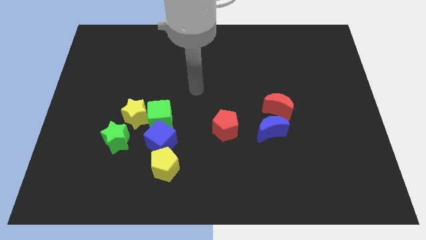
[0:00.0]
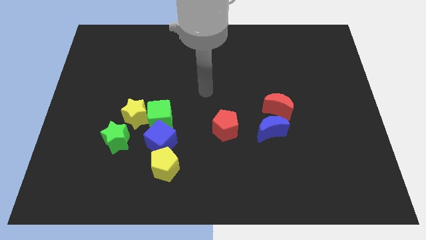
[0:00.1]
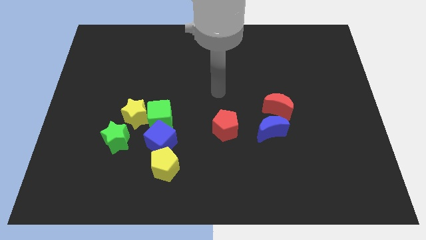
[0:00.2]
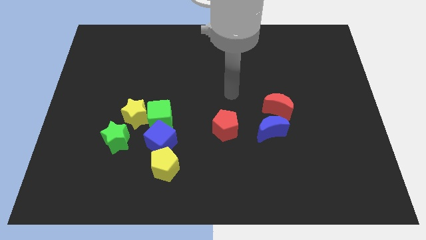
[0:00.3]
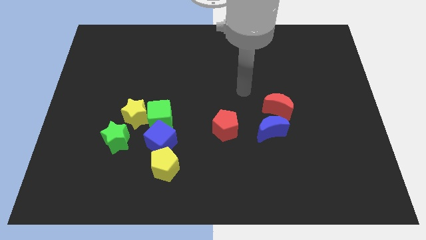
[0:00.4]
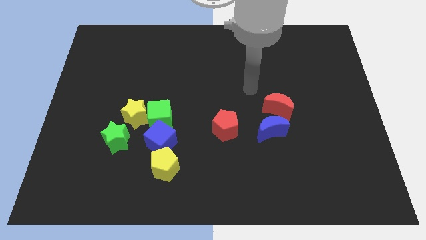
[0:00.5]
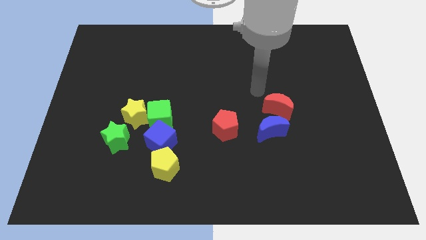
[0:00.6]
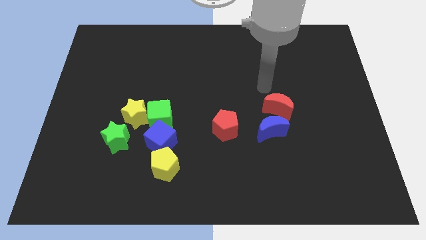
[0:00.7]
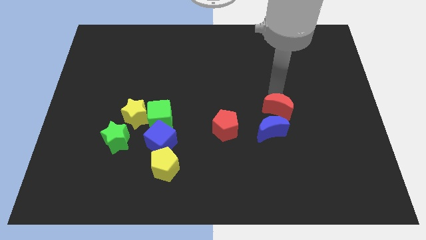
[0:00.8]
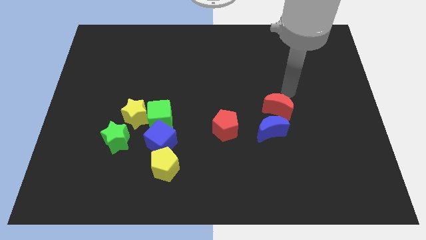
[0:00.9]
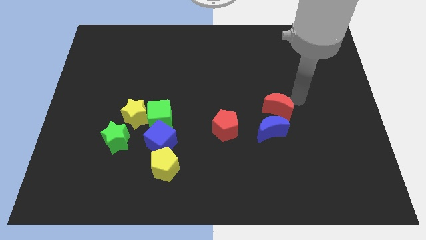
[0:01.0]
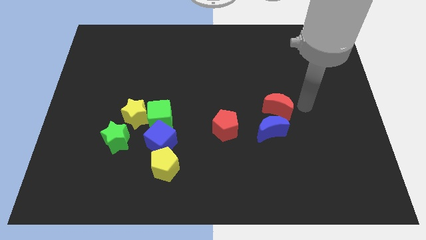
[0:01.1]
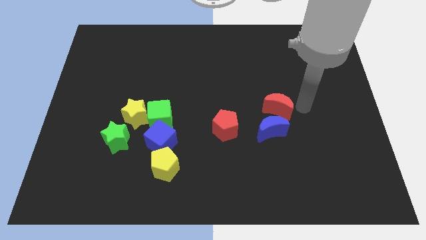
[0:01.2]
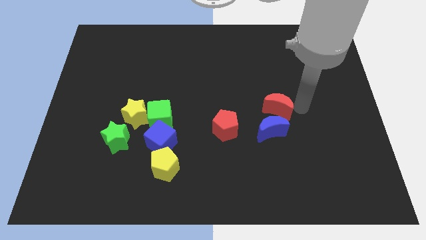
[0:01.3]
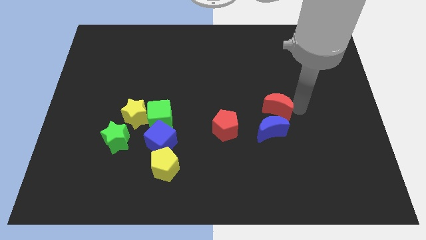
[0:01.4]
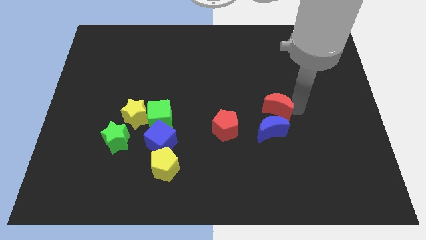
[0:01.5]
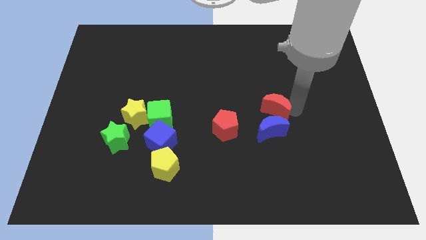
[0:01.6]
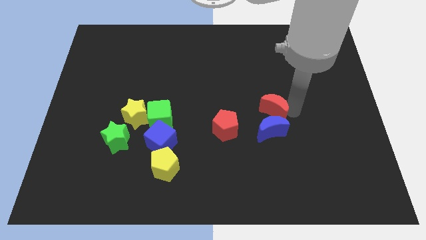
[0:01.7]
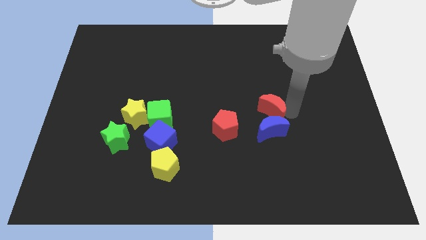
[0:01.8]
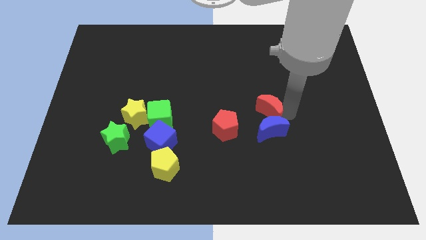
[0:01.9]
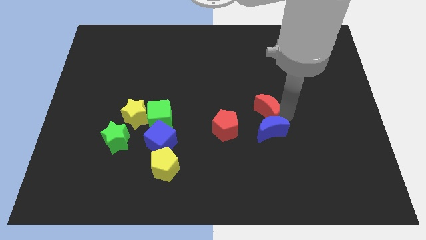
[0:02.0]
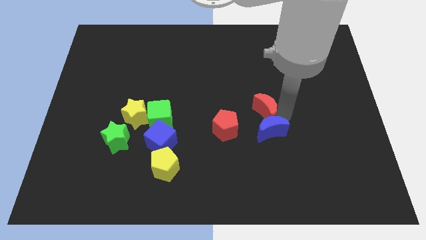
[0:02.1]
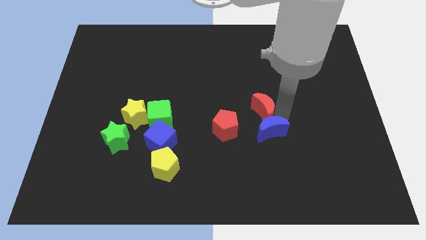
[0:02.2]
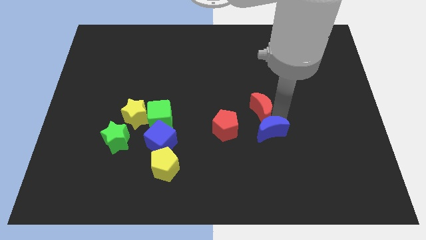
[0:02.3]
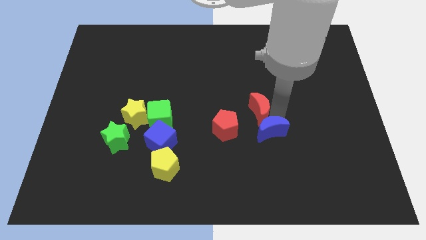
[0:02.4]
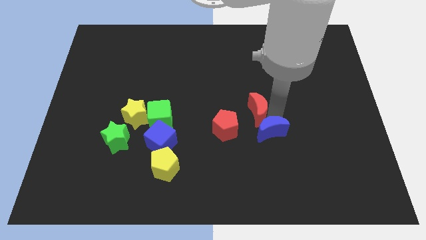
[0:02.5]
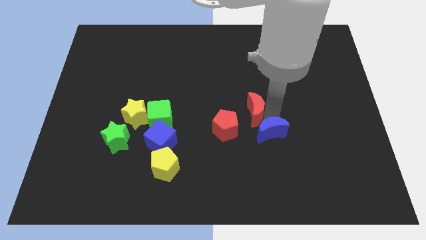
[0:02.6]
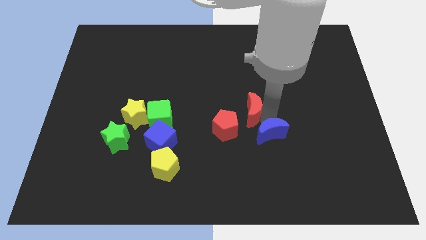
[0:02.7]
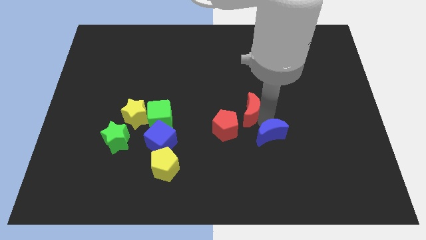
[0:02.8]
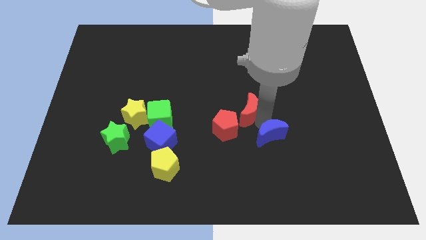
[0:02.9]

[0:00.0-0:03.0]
move the red moon a little to the left

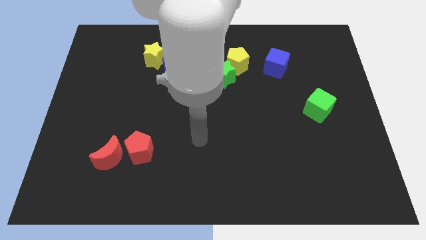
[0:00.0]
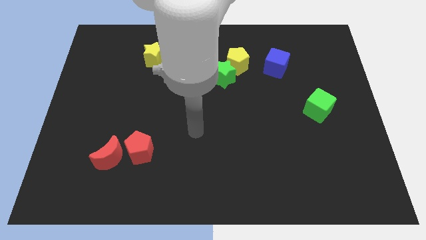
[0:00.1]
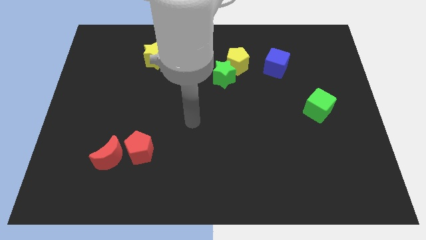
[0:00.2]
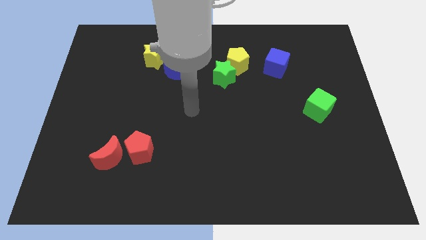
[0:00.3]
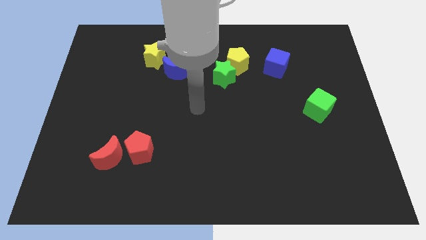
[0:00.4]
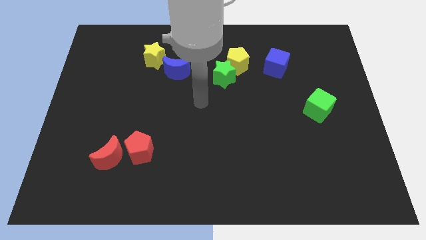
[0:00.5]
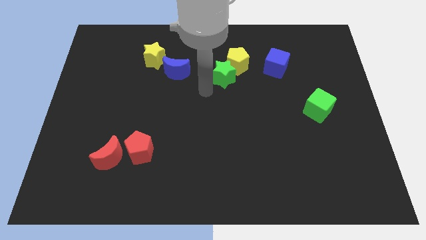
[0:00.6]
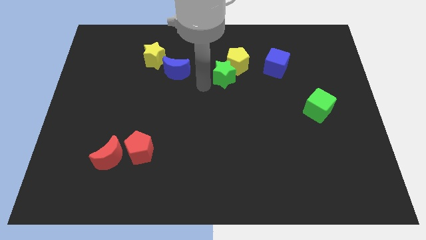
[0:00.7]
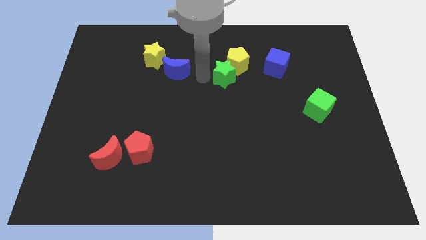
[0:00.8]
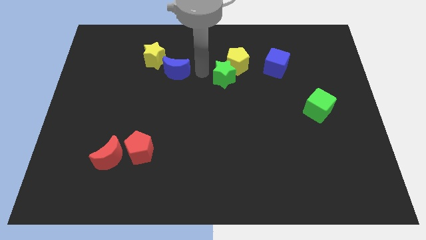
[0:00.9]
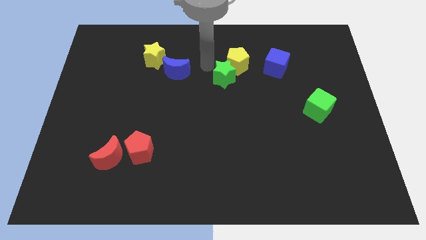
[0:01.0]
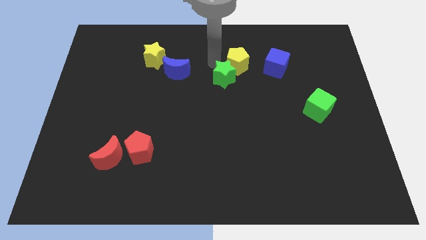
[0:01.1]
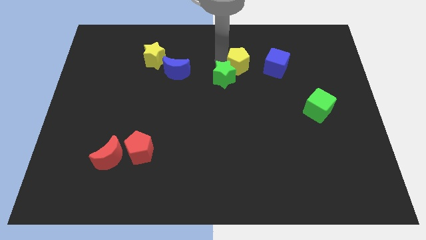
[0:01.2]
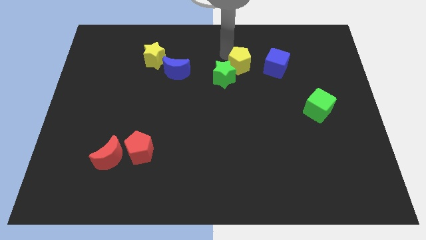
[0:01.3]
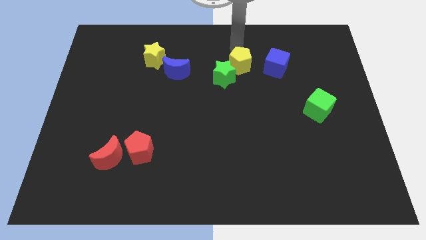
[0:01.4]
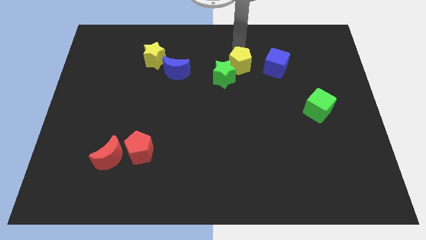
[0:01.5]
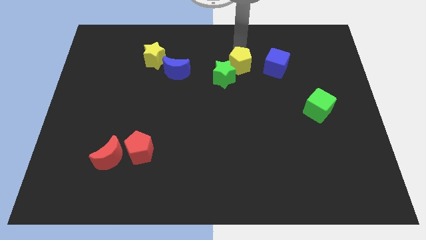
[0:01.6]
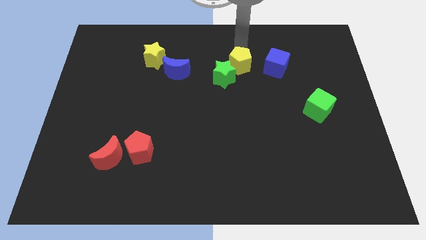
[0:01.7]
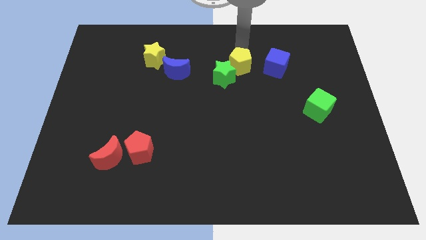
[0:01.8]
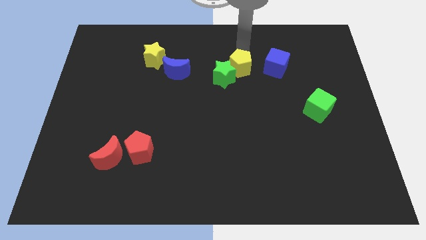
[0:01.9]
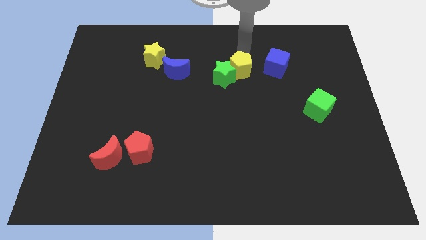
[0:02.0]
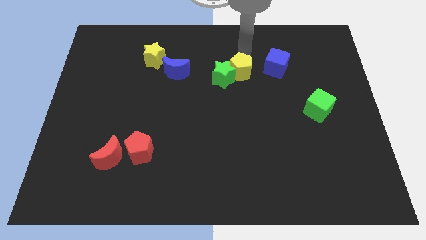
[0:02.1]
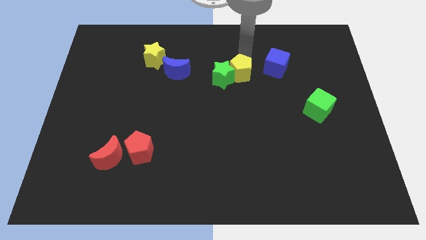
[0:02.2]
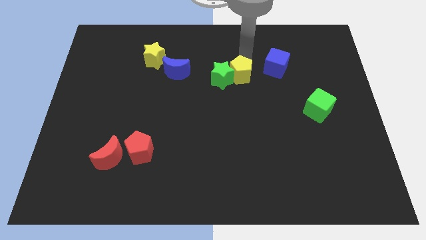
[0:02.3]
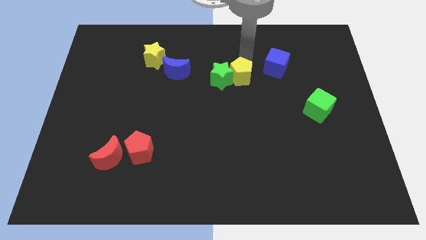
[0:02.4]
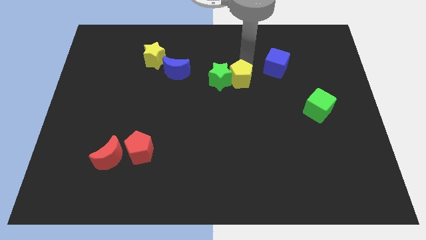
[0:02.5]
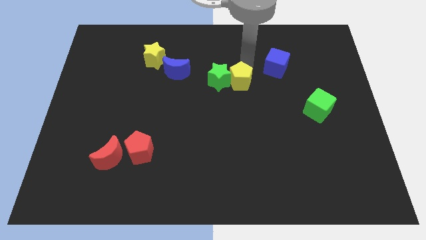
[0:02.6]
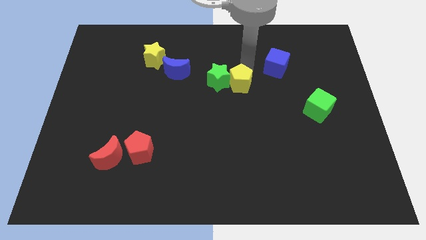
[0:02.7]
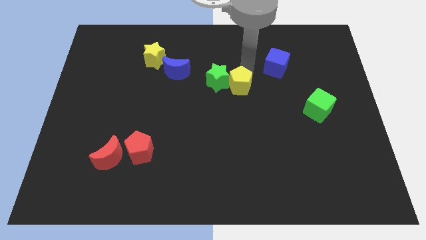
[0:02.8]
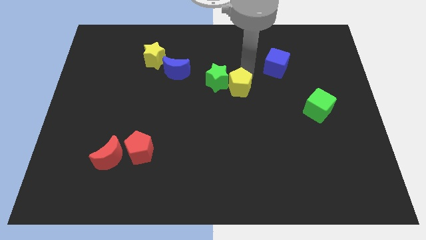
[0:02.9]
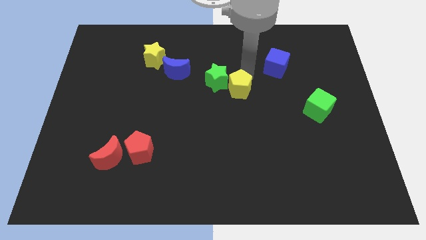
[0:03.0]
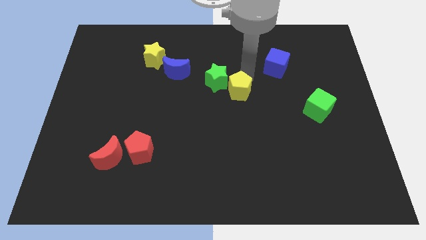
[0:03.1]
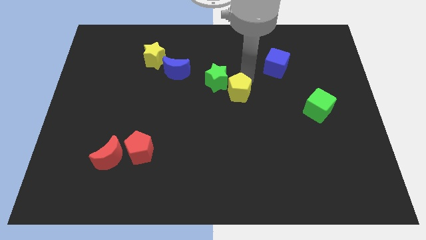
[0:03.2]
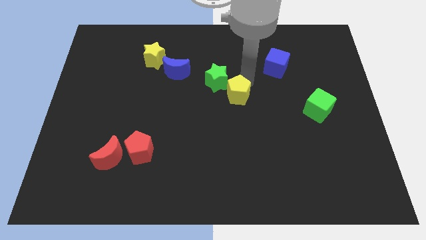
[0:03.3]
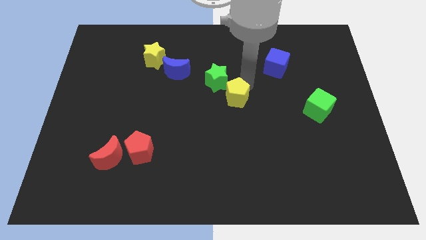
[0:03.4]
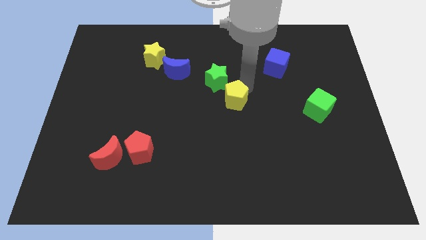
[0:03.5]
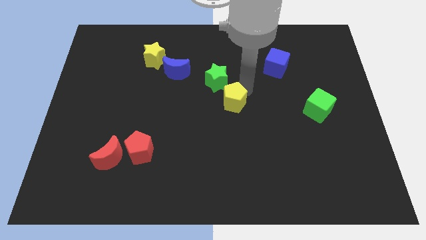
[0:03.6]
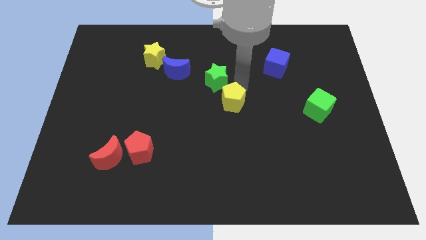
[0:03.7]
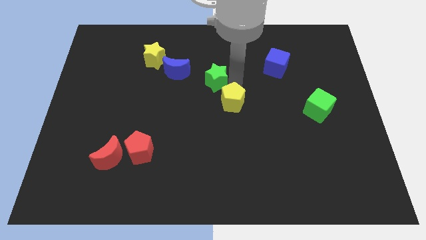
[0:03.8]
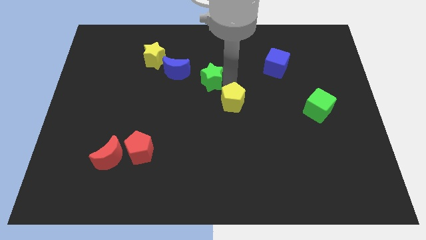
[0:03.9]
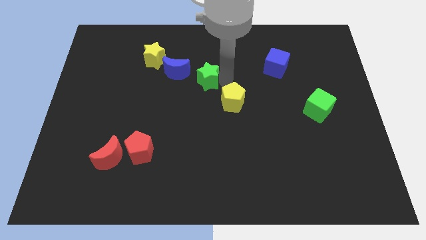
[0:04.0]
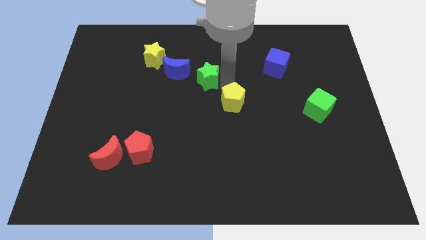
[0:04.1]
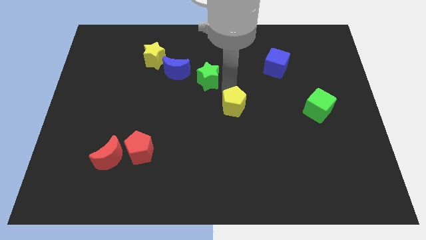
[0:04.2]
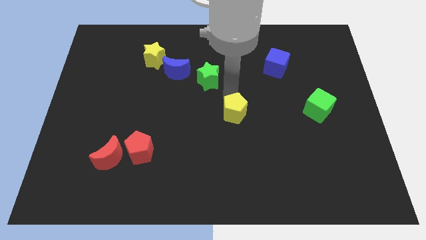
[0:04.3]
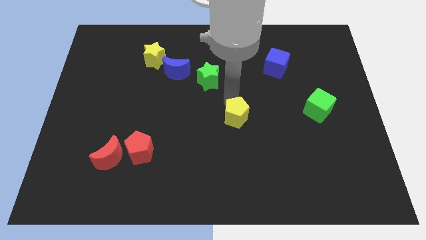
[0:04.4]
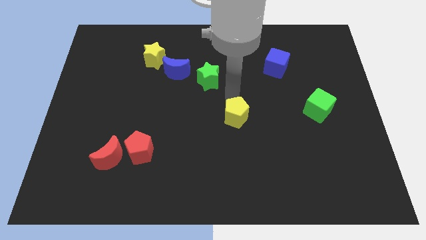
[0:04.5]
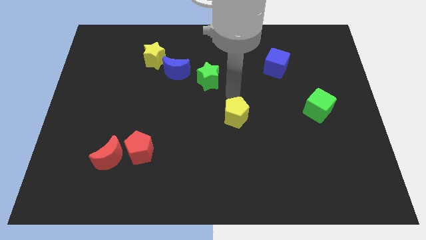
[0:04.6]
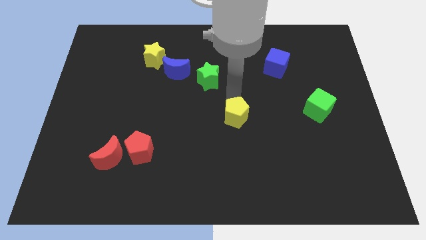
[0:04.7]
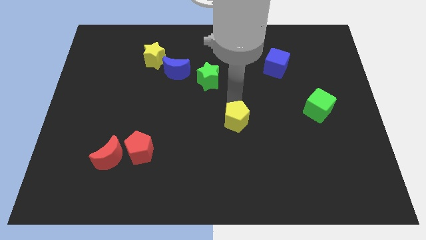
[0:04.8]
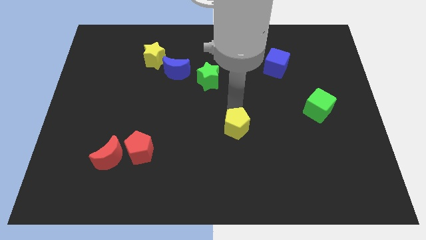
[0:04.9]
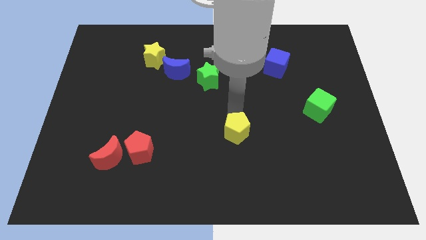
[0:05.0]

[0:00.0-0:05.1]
move the yellow pentagon downwards
